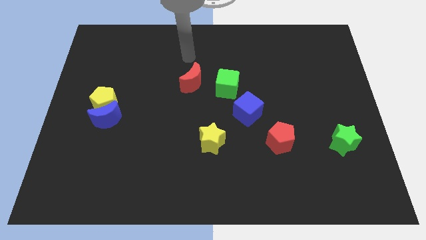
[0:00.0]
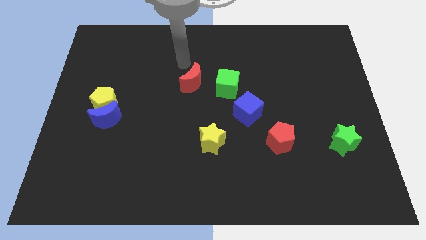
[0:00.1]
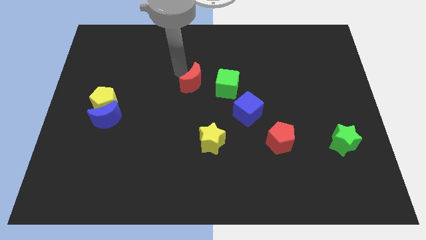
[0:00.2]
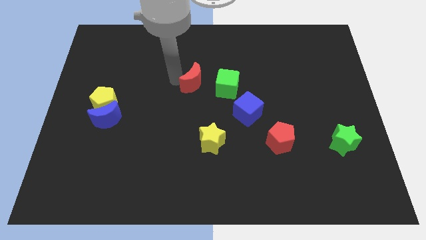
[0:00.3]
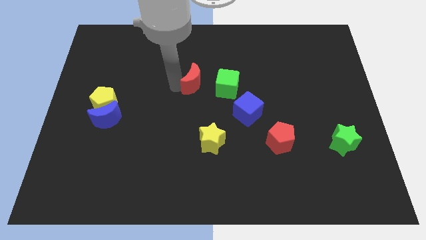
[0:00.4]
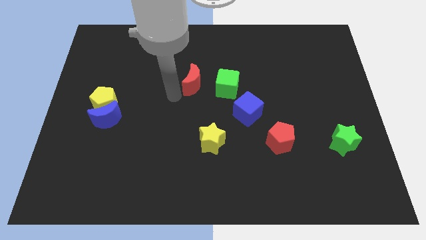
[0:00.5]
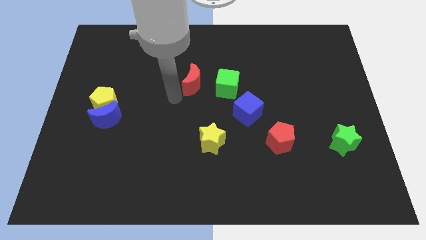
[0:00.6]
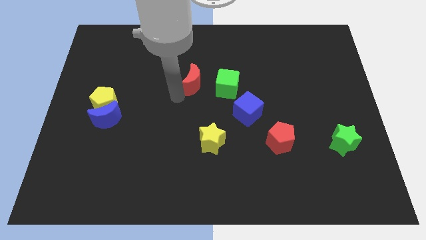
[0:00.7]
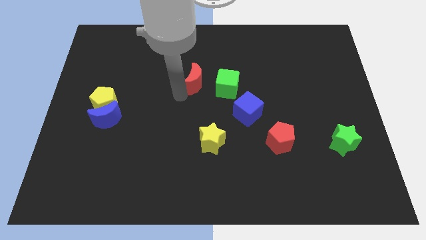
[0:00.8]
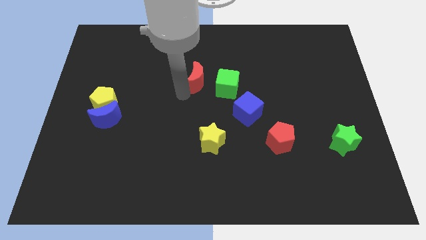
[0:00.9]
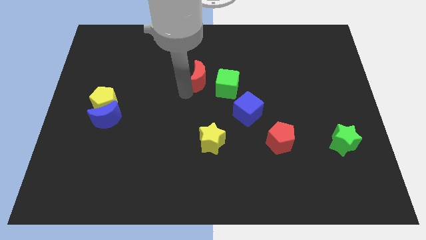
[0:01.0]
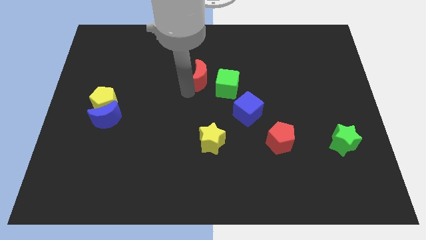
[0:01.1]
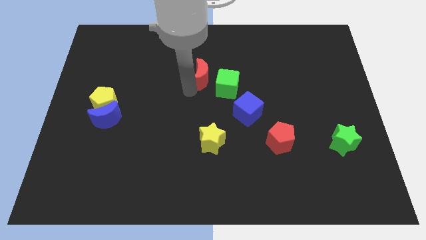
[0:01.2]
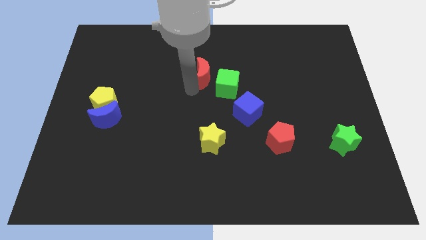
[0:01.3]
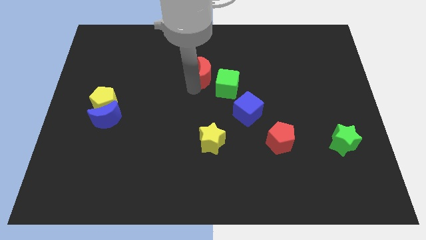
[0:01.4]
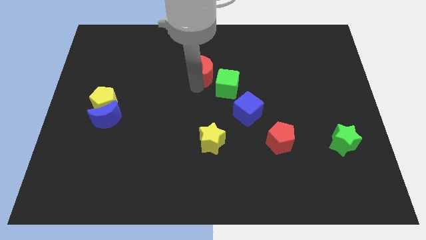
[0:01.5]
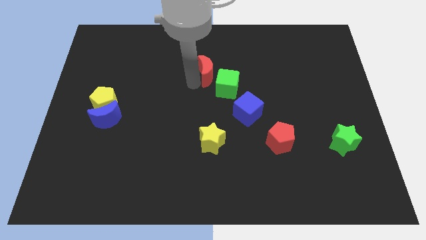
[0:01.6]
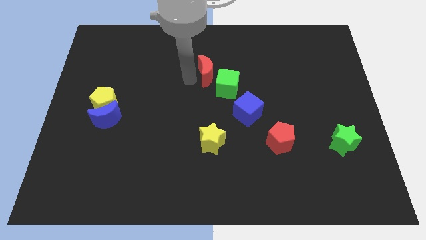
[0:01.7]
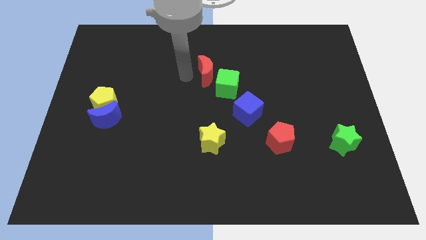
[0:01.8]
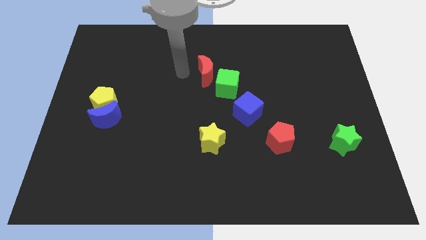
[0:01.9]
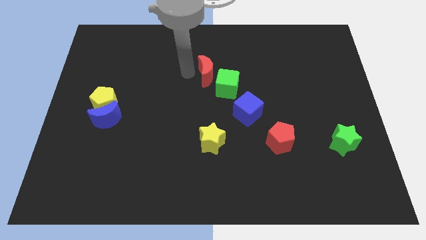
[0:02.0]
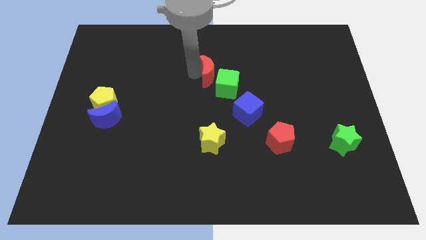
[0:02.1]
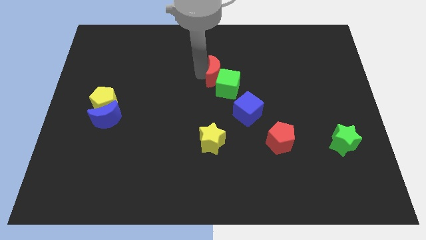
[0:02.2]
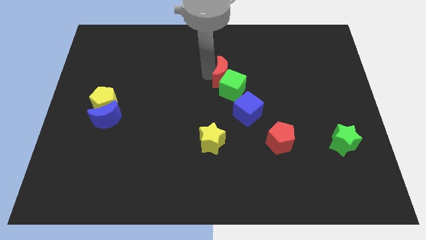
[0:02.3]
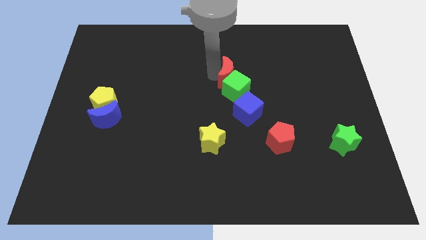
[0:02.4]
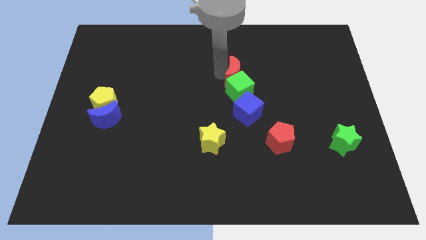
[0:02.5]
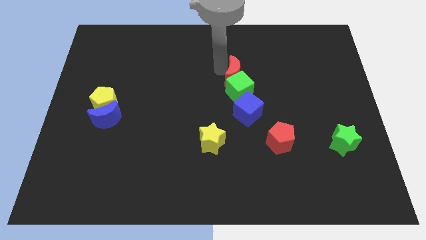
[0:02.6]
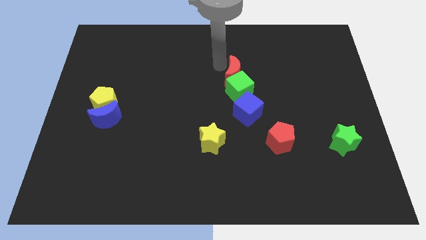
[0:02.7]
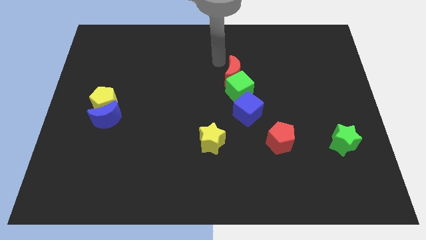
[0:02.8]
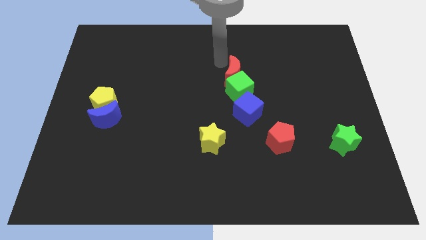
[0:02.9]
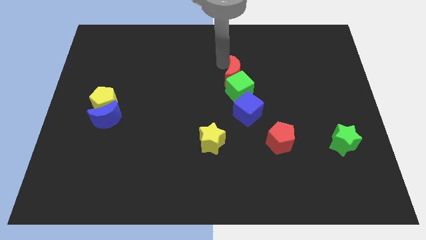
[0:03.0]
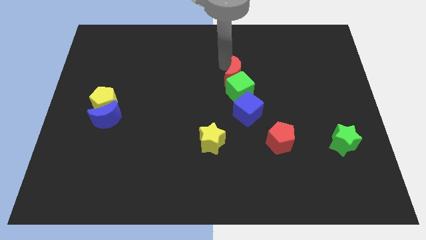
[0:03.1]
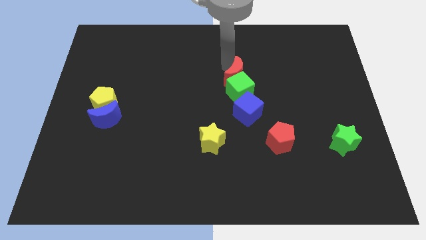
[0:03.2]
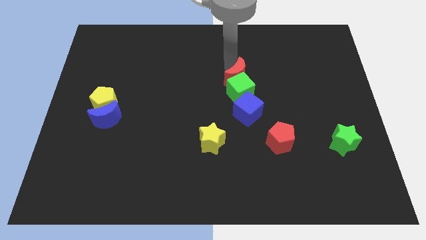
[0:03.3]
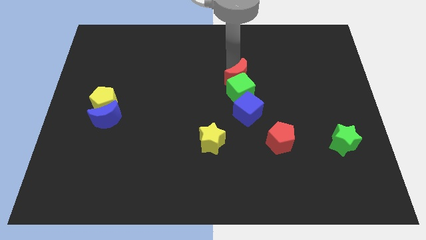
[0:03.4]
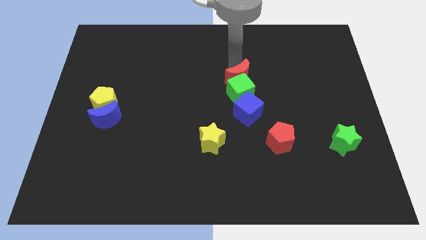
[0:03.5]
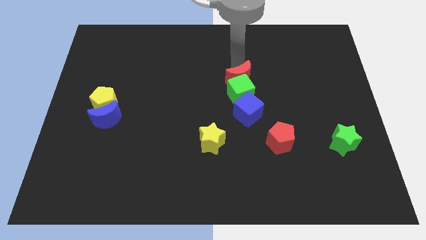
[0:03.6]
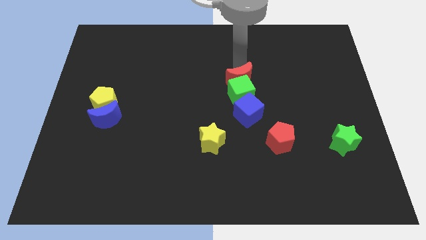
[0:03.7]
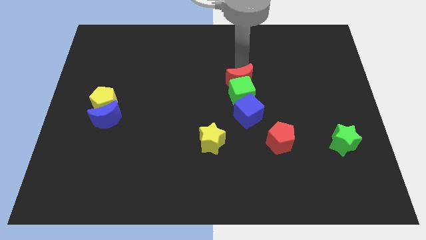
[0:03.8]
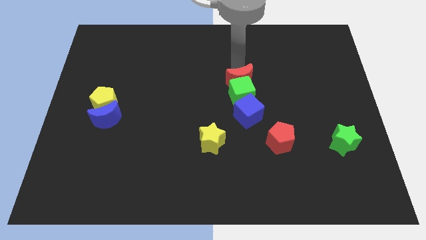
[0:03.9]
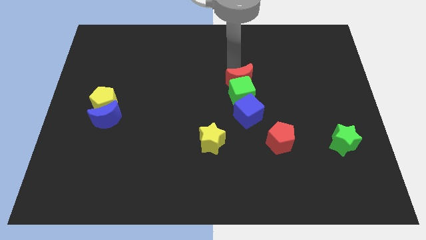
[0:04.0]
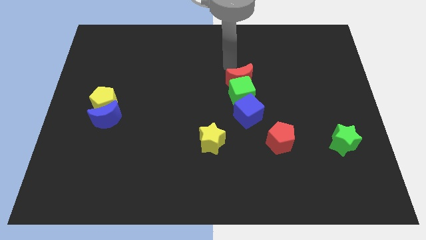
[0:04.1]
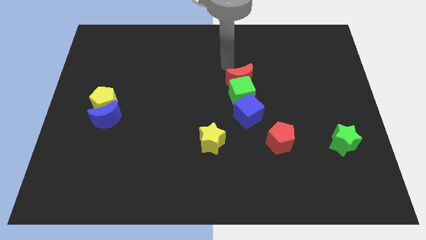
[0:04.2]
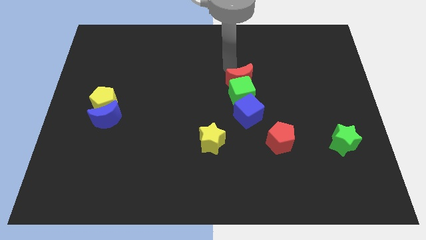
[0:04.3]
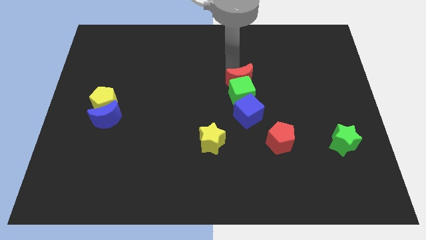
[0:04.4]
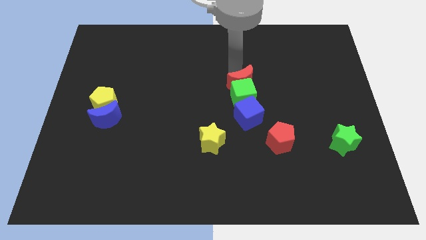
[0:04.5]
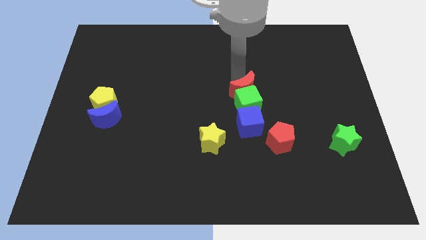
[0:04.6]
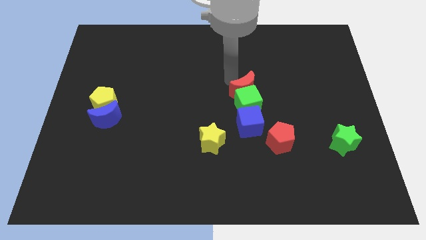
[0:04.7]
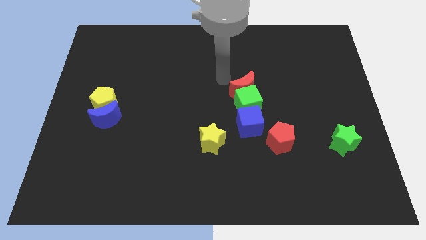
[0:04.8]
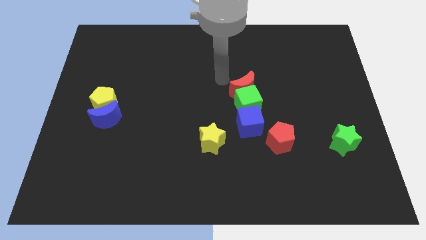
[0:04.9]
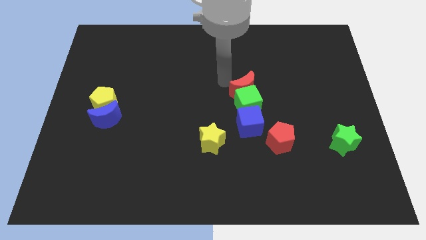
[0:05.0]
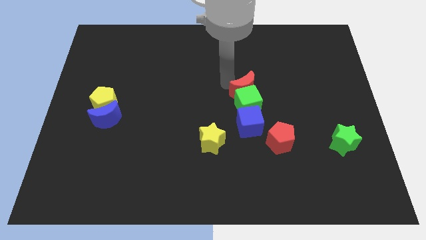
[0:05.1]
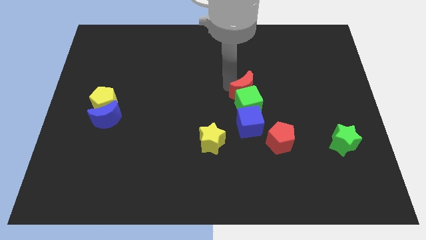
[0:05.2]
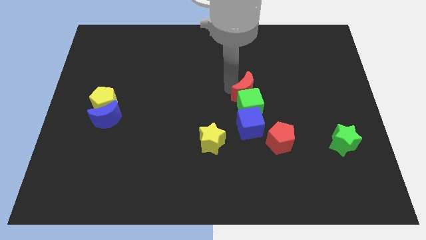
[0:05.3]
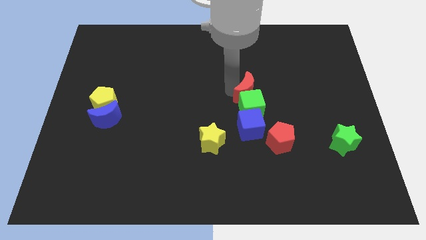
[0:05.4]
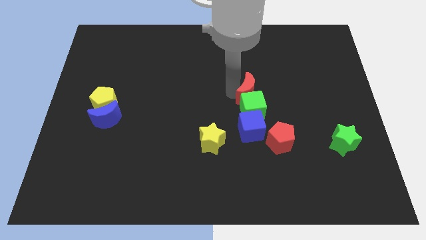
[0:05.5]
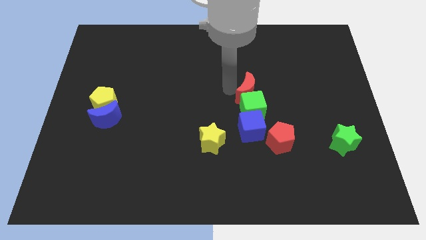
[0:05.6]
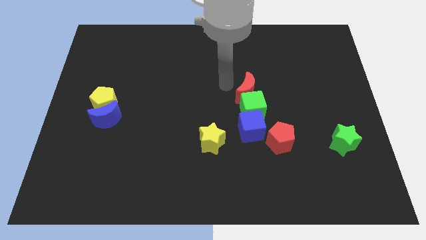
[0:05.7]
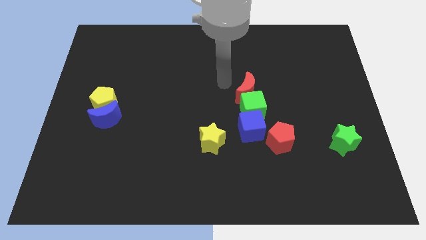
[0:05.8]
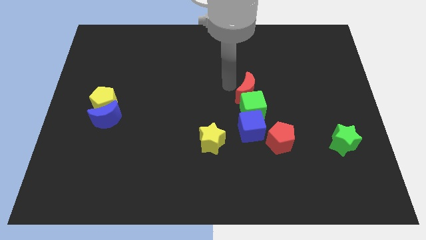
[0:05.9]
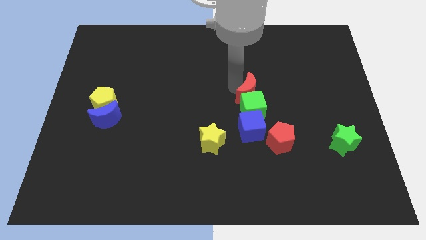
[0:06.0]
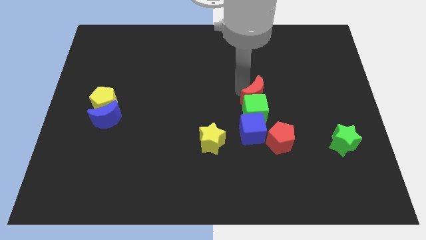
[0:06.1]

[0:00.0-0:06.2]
slide the red moon above the red pentagon

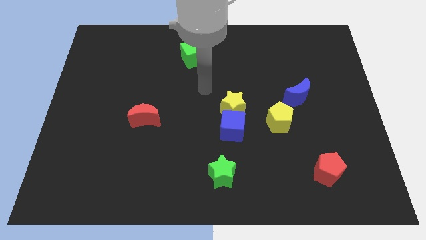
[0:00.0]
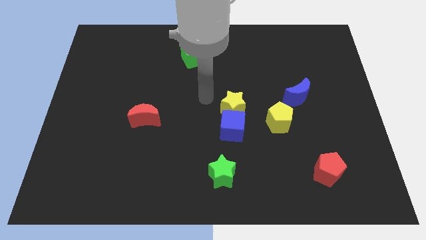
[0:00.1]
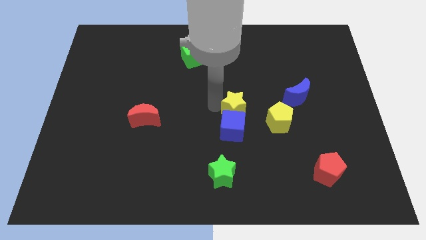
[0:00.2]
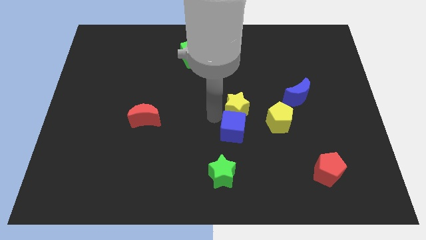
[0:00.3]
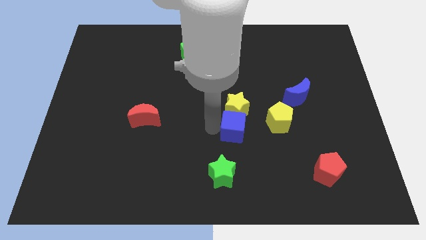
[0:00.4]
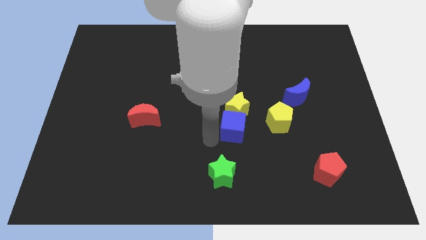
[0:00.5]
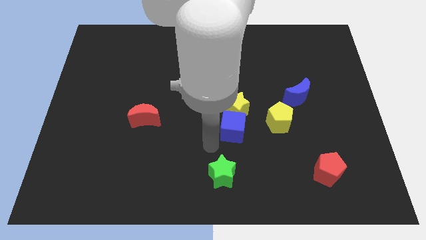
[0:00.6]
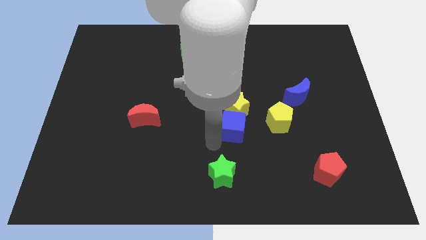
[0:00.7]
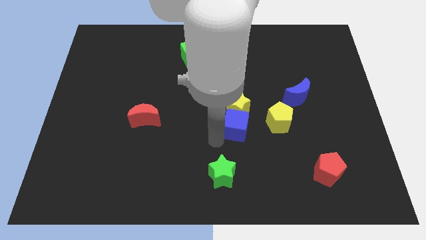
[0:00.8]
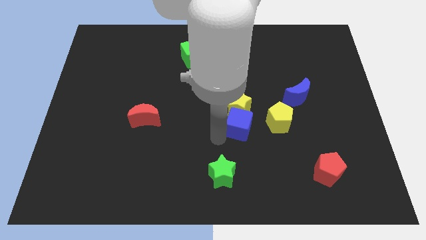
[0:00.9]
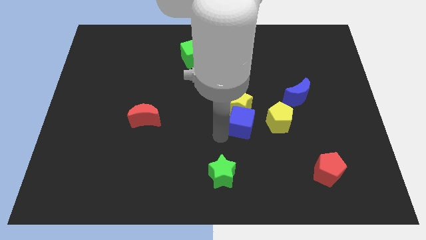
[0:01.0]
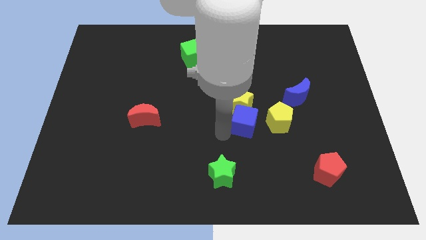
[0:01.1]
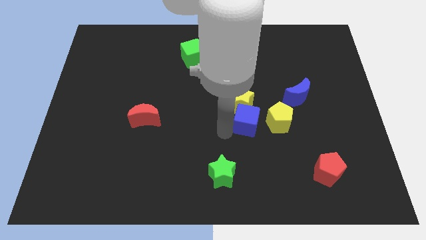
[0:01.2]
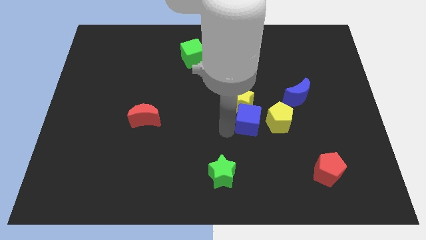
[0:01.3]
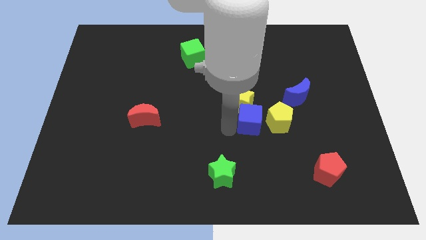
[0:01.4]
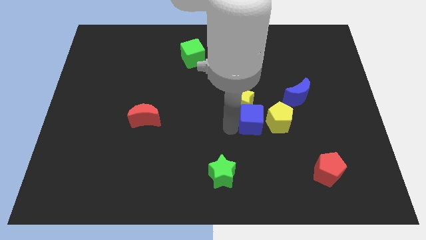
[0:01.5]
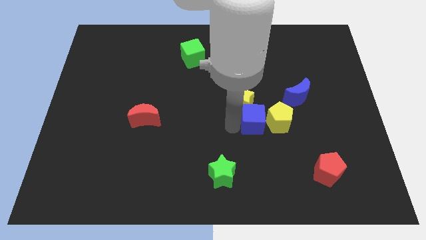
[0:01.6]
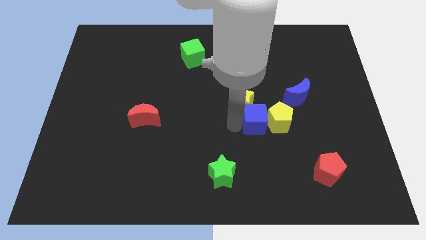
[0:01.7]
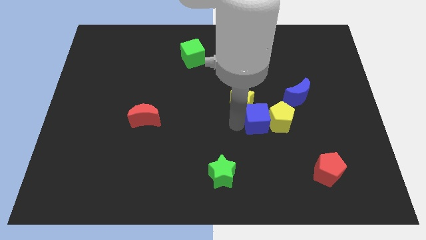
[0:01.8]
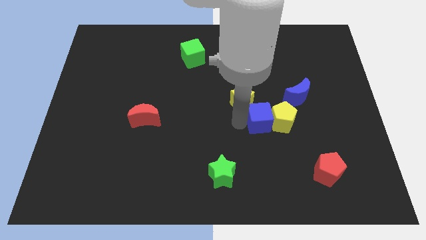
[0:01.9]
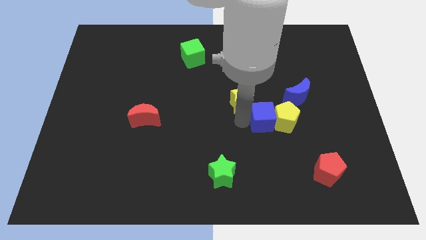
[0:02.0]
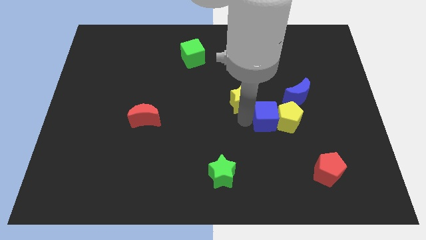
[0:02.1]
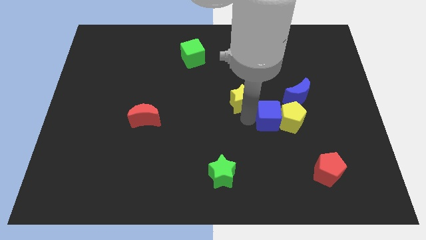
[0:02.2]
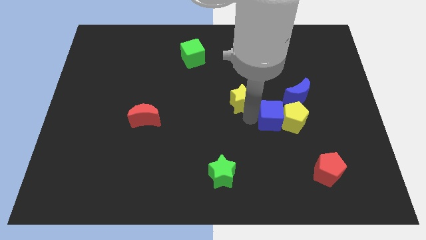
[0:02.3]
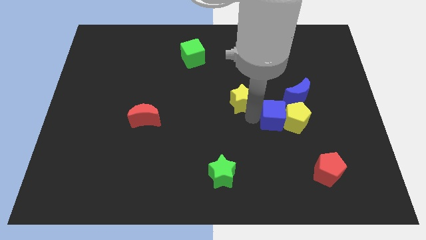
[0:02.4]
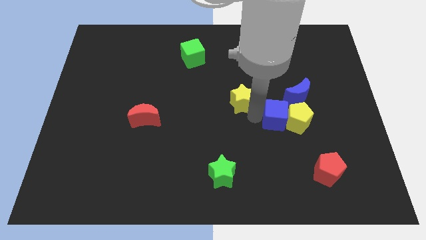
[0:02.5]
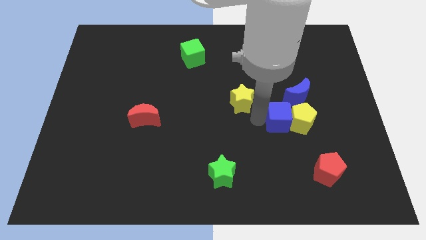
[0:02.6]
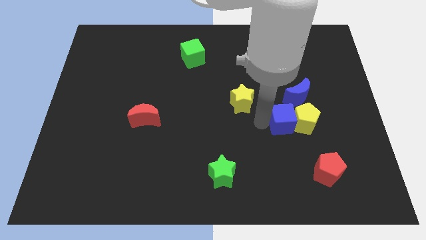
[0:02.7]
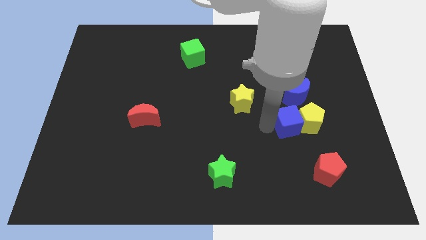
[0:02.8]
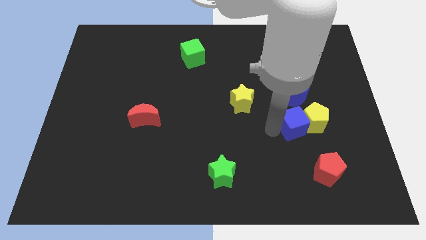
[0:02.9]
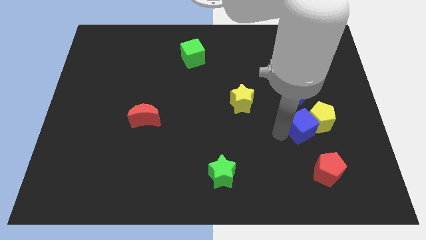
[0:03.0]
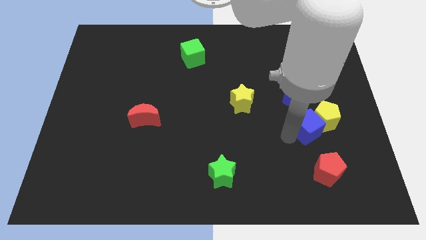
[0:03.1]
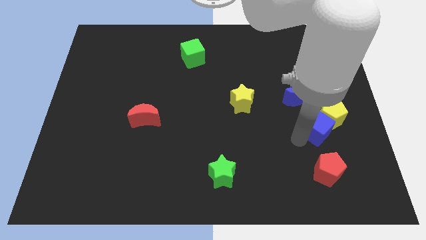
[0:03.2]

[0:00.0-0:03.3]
move the blue cube diagonally down and to the right of the blue moon
